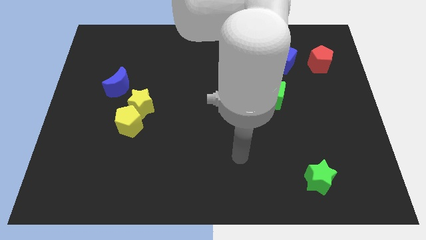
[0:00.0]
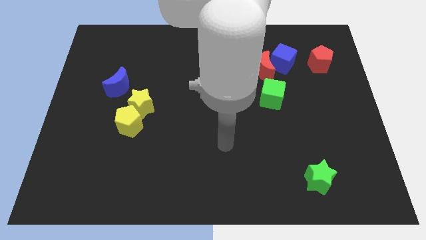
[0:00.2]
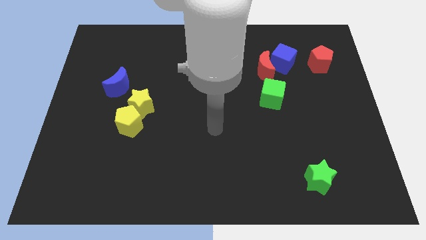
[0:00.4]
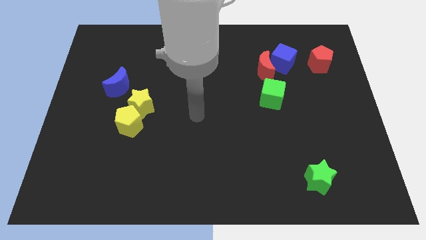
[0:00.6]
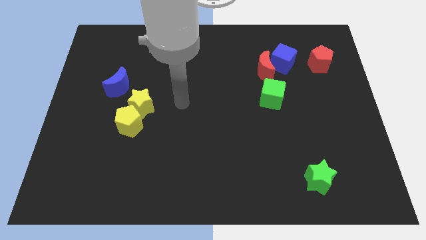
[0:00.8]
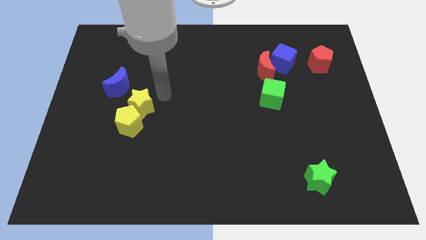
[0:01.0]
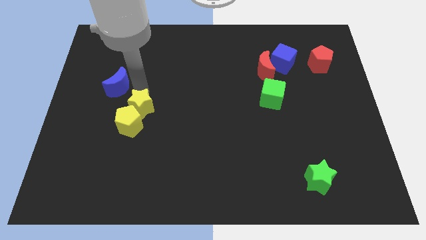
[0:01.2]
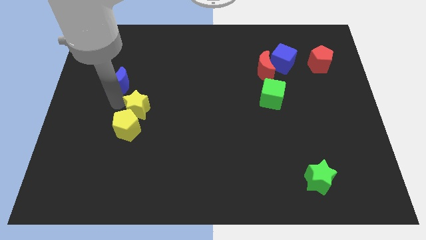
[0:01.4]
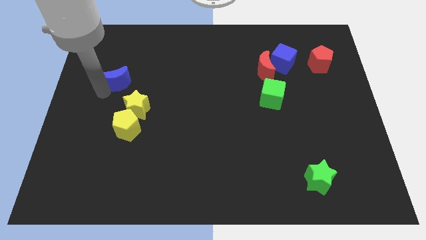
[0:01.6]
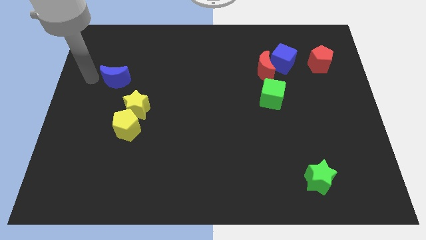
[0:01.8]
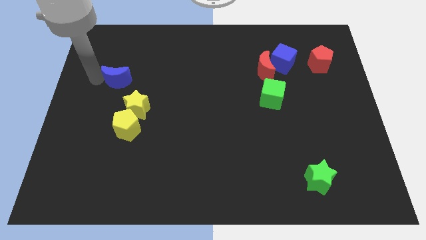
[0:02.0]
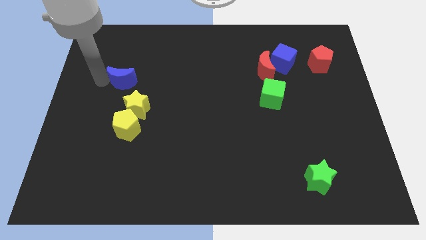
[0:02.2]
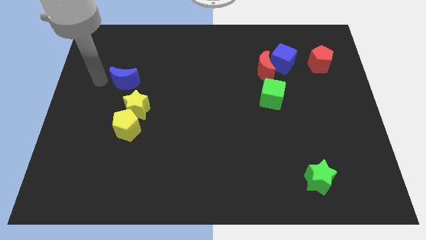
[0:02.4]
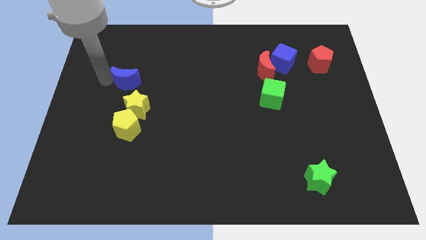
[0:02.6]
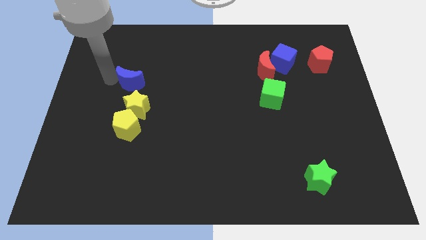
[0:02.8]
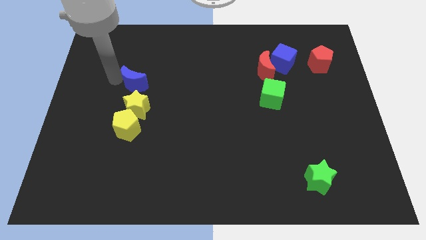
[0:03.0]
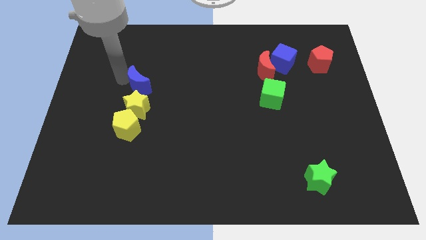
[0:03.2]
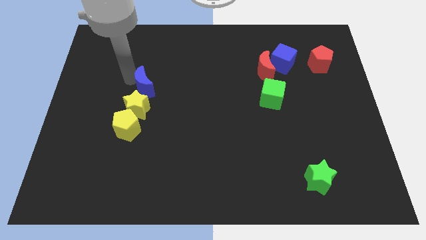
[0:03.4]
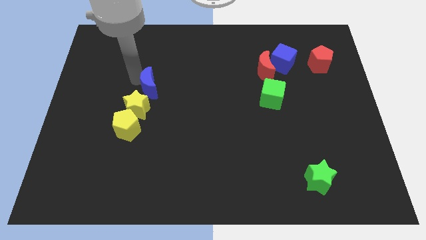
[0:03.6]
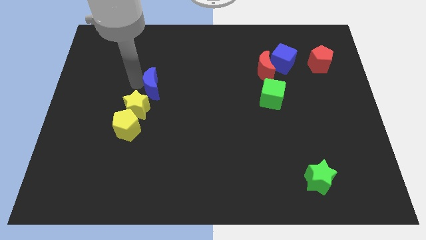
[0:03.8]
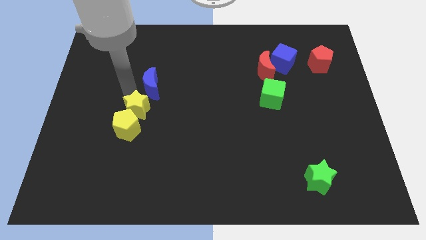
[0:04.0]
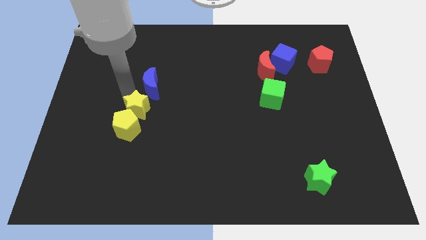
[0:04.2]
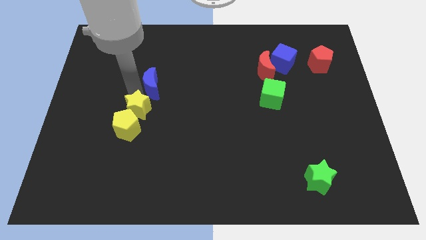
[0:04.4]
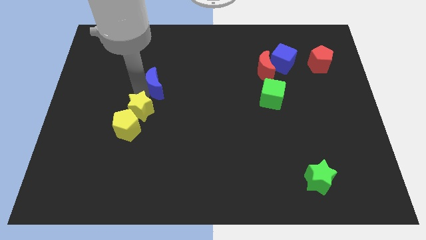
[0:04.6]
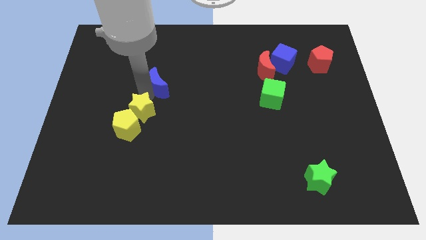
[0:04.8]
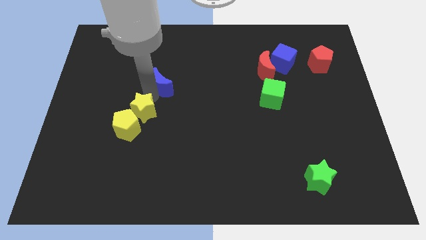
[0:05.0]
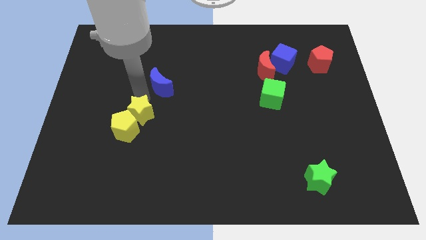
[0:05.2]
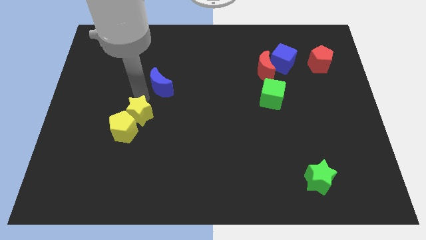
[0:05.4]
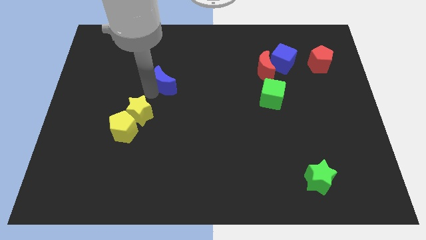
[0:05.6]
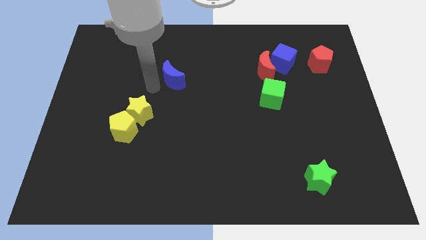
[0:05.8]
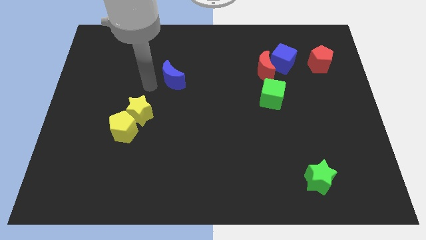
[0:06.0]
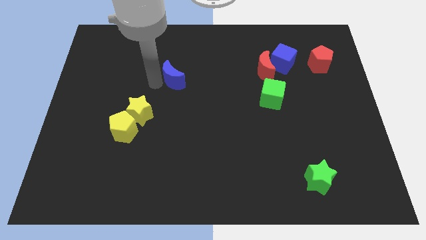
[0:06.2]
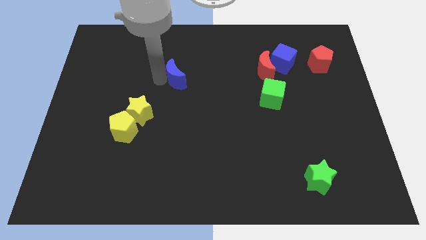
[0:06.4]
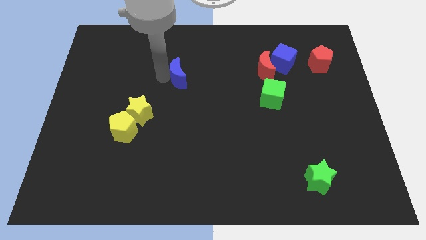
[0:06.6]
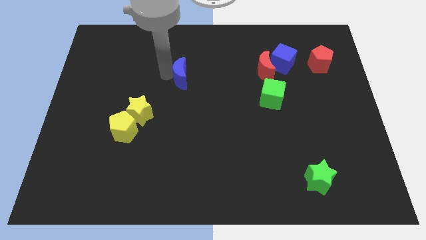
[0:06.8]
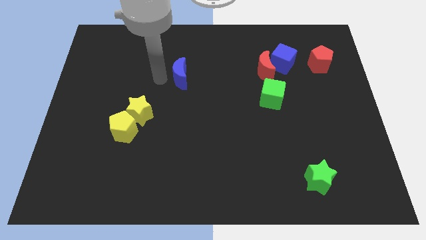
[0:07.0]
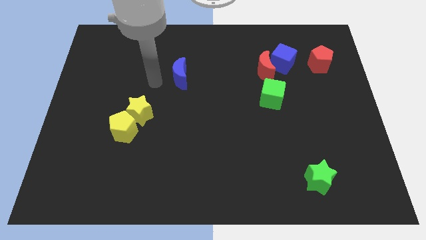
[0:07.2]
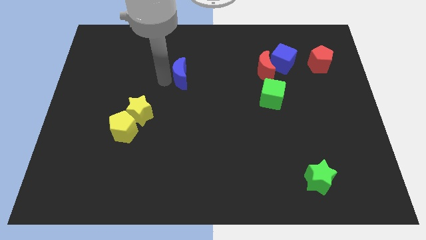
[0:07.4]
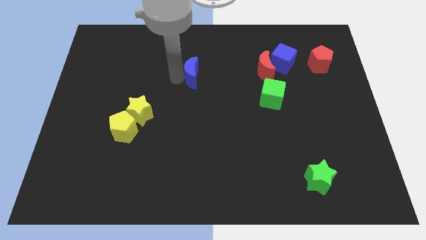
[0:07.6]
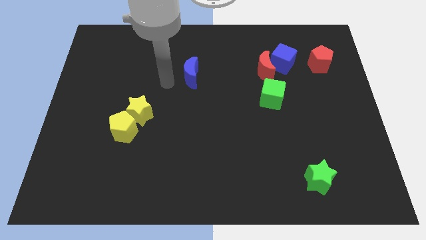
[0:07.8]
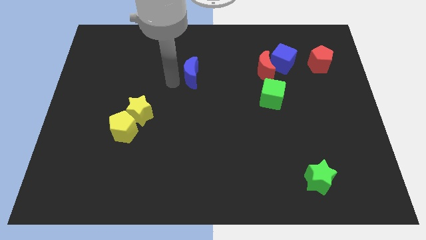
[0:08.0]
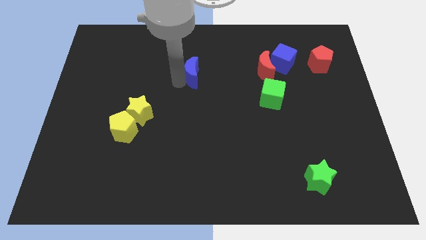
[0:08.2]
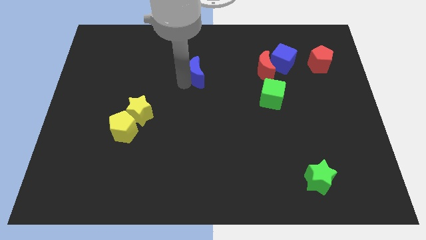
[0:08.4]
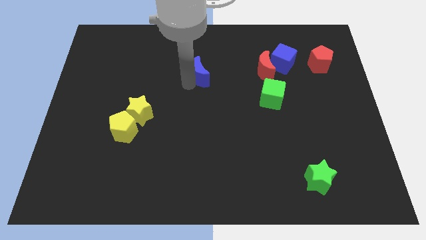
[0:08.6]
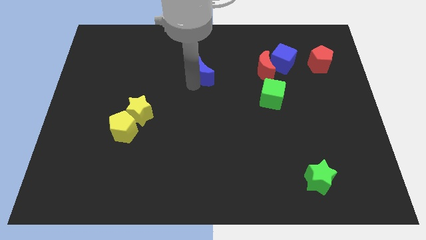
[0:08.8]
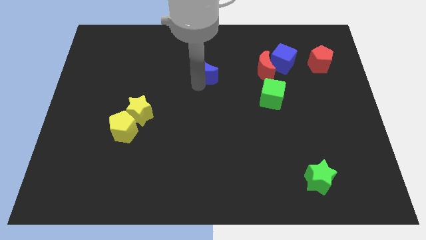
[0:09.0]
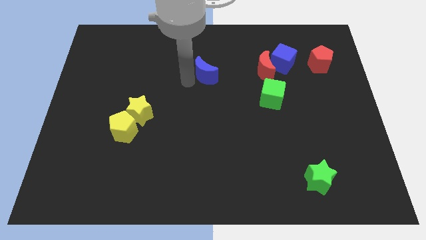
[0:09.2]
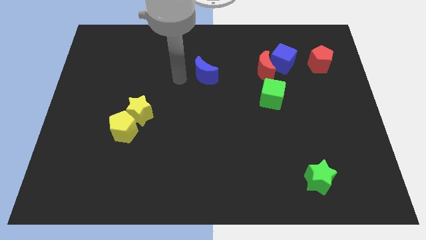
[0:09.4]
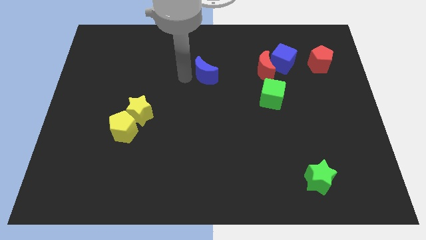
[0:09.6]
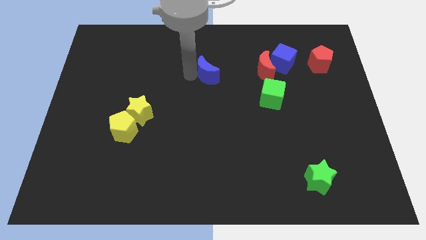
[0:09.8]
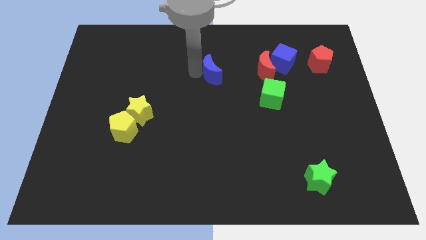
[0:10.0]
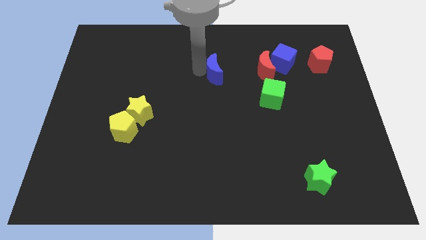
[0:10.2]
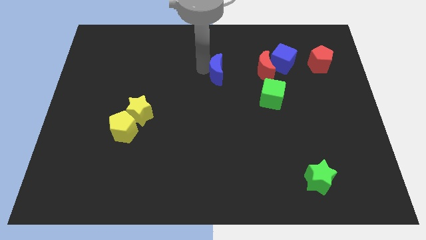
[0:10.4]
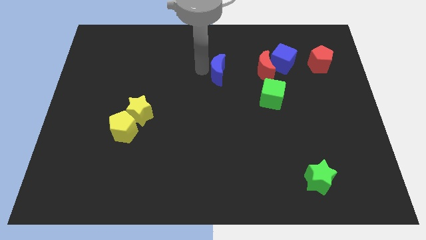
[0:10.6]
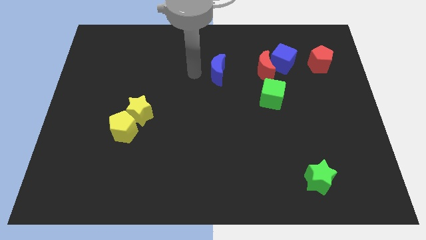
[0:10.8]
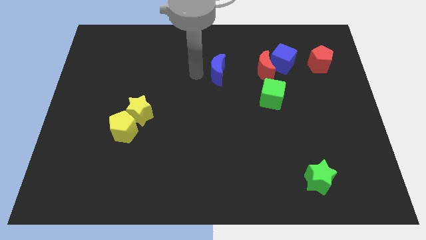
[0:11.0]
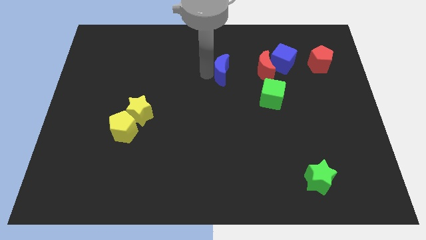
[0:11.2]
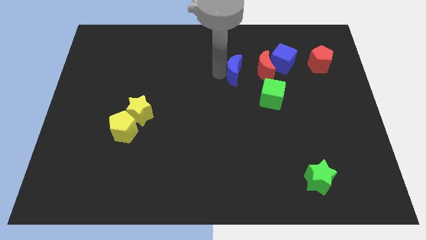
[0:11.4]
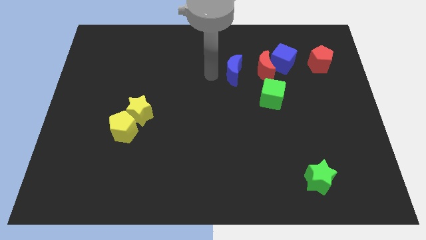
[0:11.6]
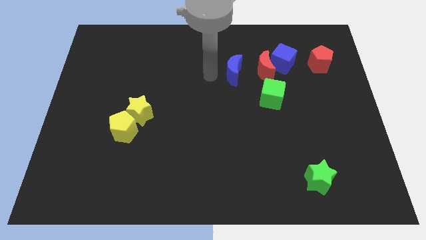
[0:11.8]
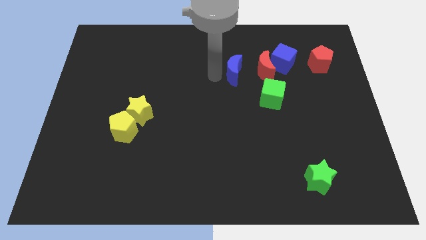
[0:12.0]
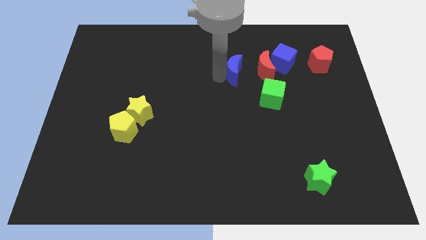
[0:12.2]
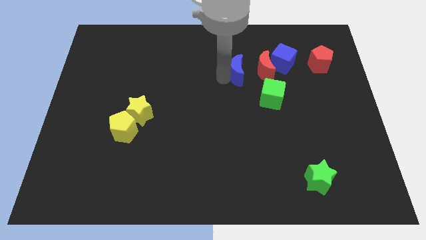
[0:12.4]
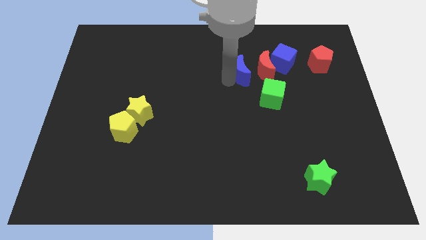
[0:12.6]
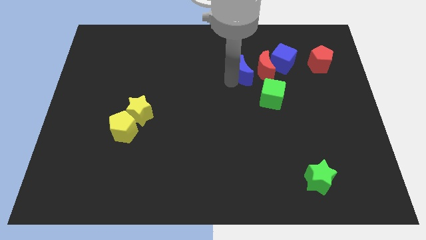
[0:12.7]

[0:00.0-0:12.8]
push the blue moon next to the red moon
